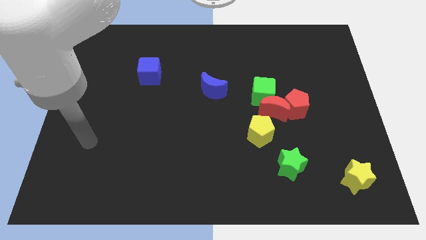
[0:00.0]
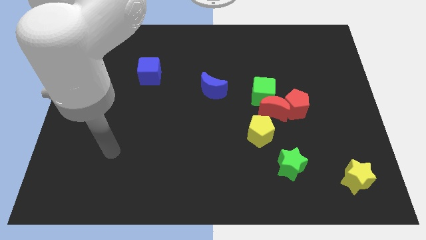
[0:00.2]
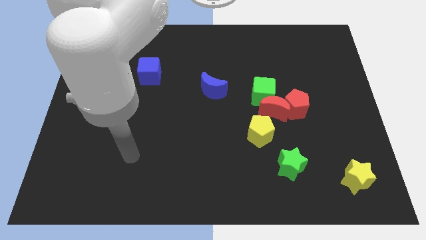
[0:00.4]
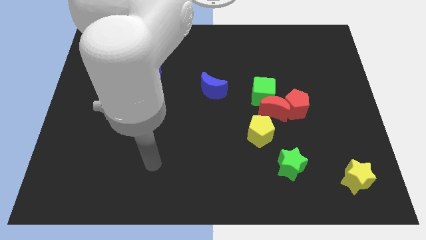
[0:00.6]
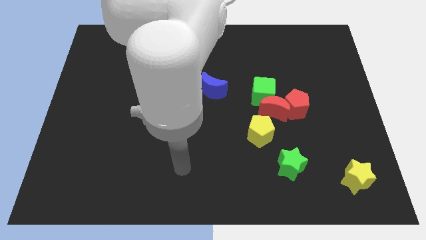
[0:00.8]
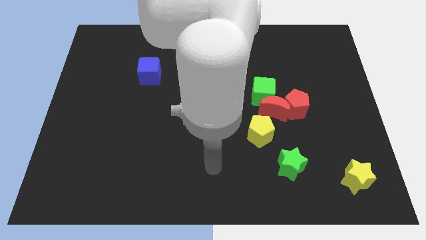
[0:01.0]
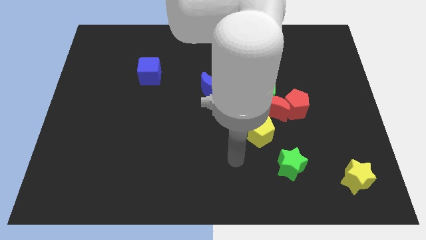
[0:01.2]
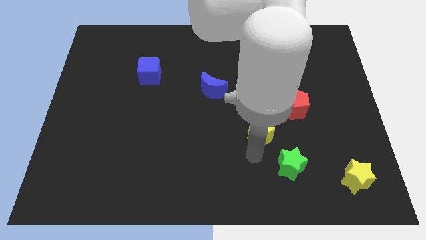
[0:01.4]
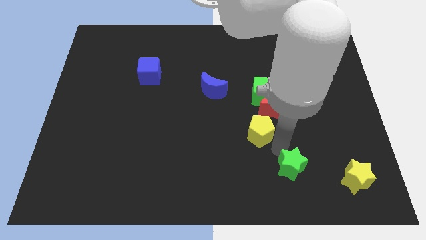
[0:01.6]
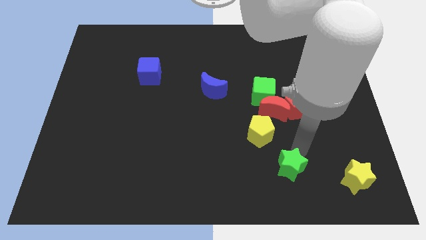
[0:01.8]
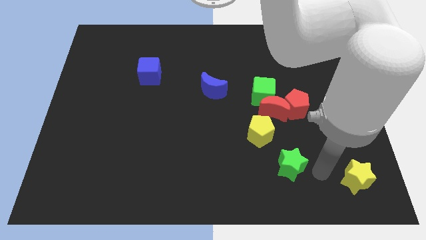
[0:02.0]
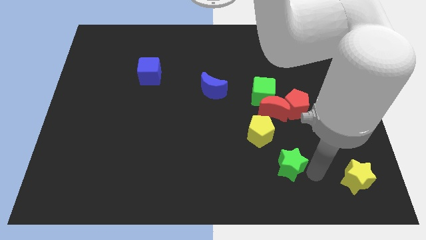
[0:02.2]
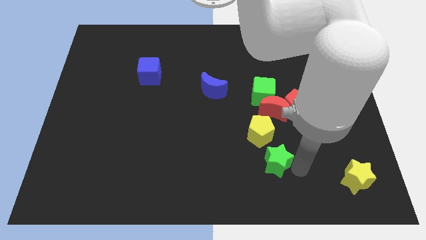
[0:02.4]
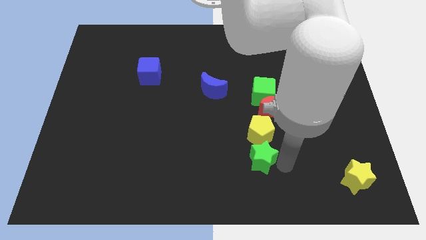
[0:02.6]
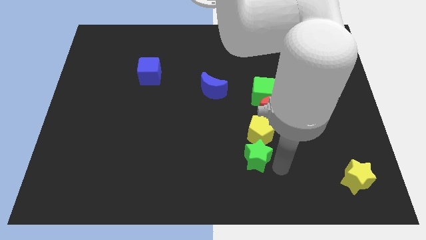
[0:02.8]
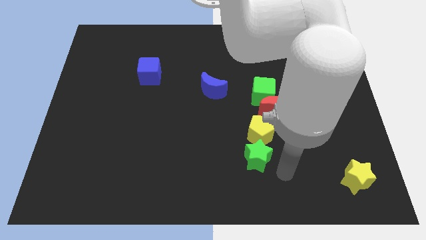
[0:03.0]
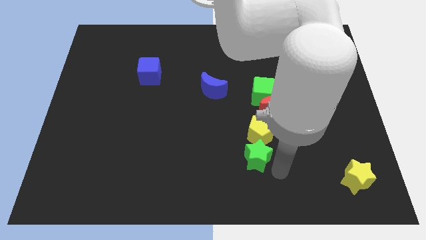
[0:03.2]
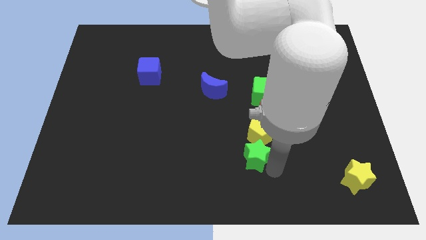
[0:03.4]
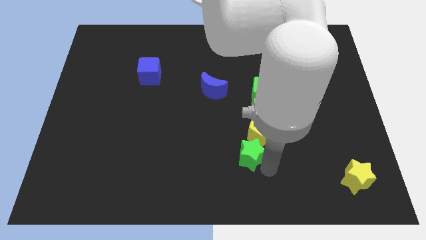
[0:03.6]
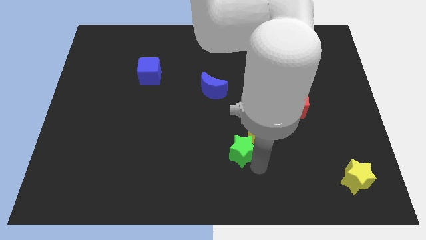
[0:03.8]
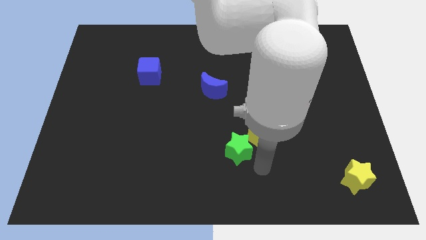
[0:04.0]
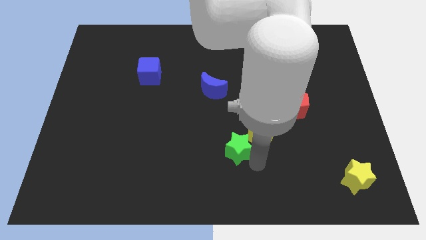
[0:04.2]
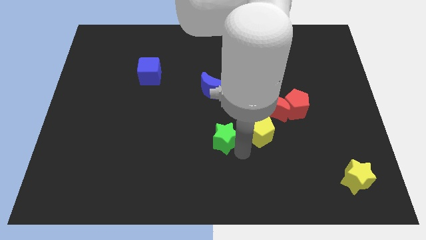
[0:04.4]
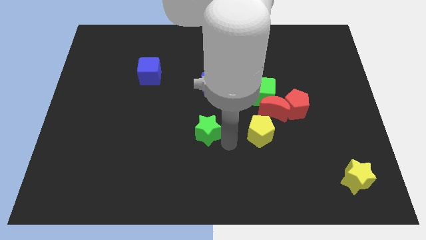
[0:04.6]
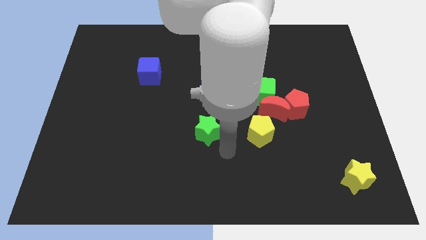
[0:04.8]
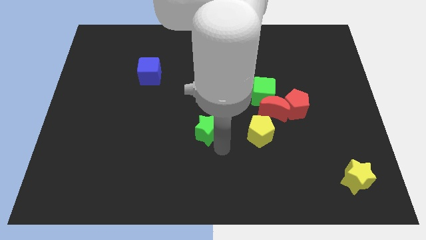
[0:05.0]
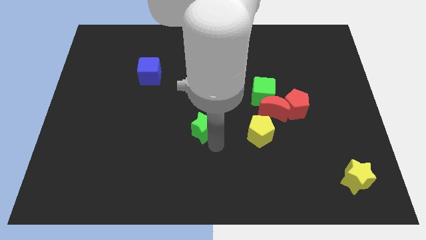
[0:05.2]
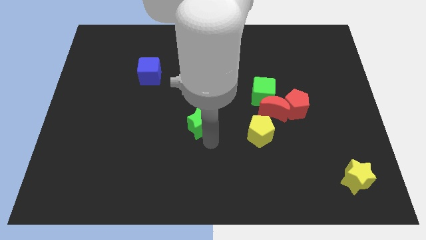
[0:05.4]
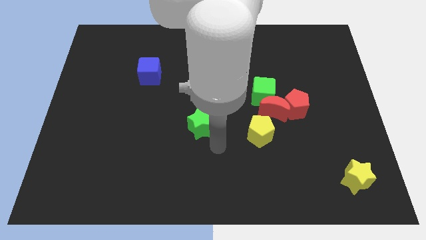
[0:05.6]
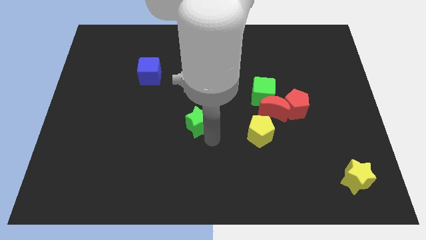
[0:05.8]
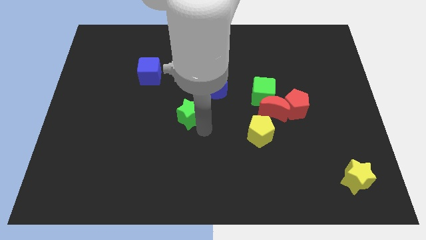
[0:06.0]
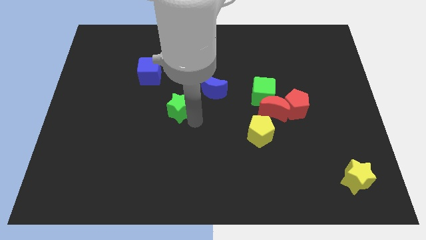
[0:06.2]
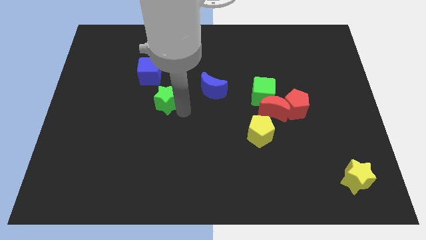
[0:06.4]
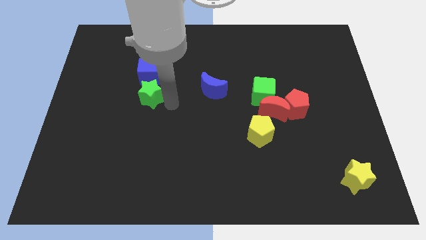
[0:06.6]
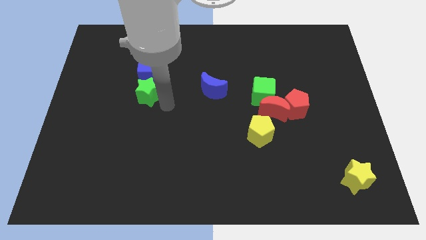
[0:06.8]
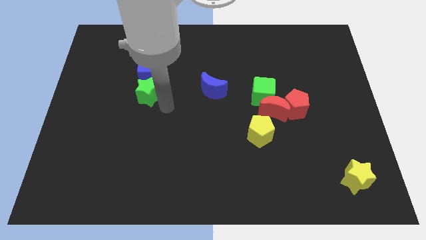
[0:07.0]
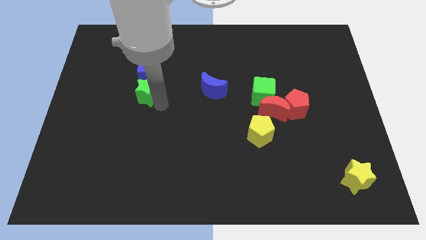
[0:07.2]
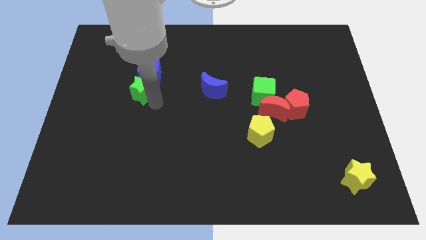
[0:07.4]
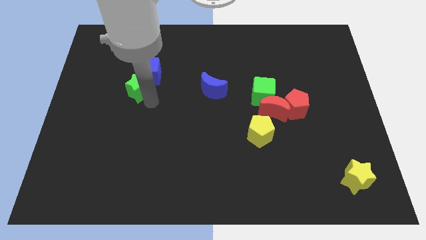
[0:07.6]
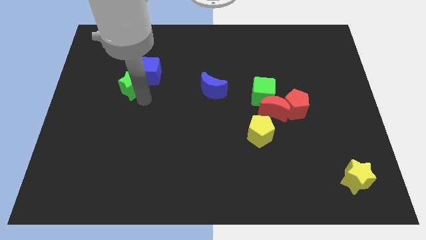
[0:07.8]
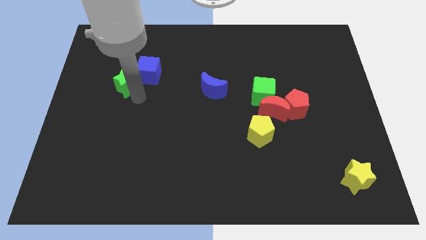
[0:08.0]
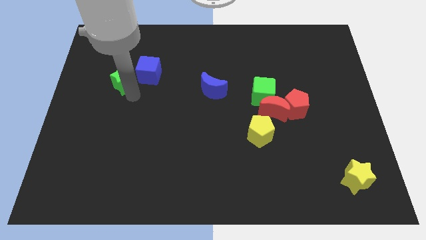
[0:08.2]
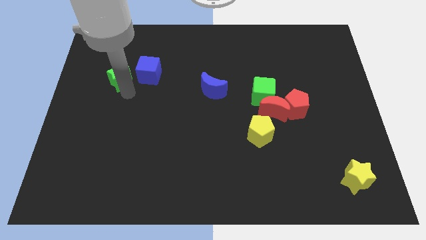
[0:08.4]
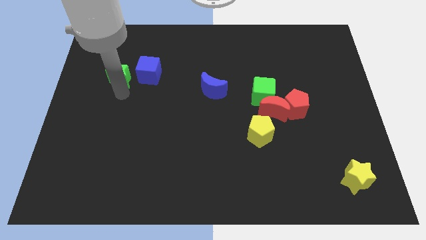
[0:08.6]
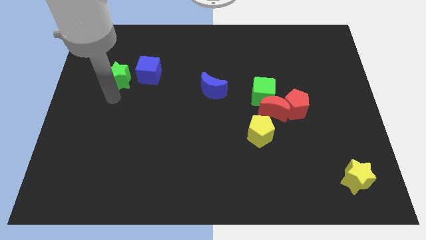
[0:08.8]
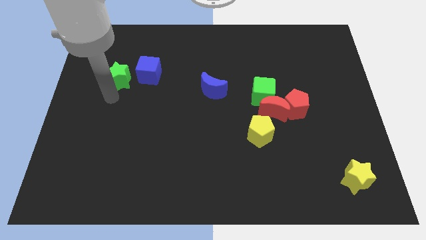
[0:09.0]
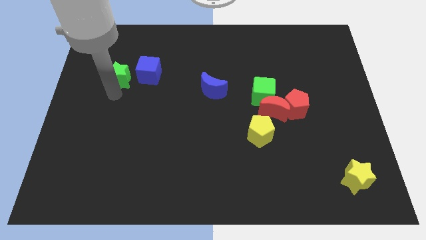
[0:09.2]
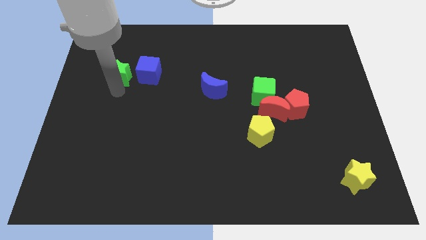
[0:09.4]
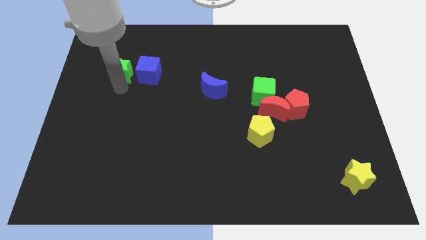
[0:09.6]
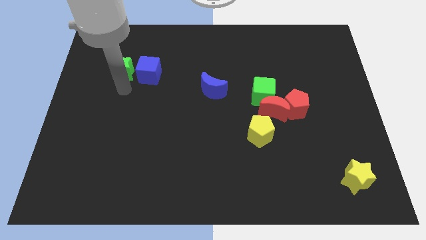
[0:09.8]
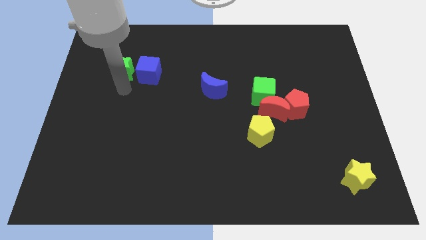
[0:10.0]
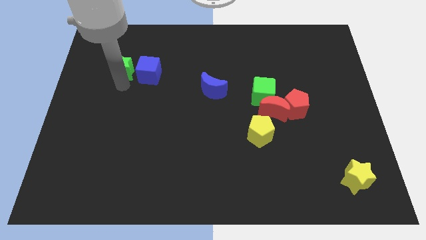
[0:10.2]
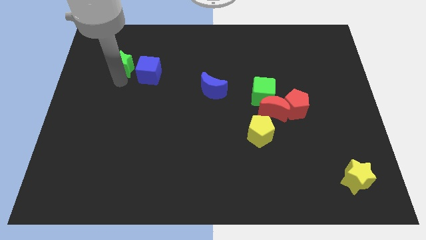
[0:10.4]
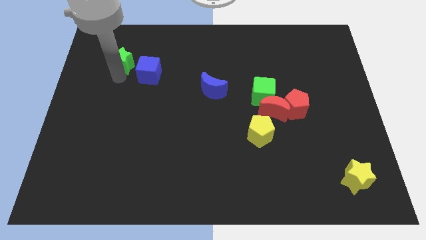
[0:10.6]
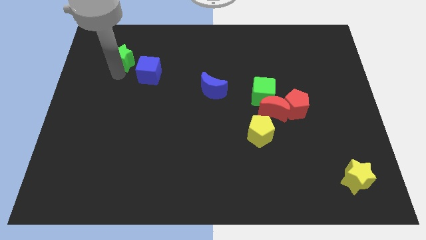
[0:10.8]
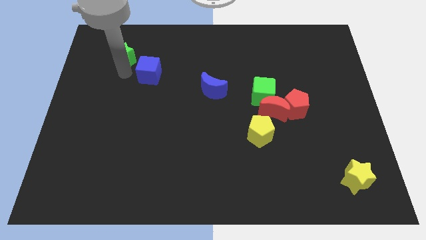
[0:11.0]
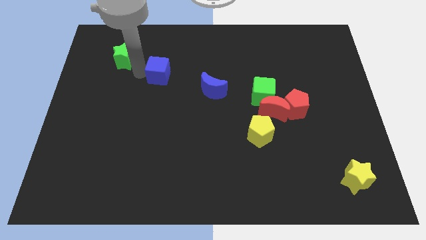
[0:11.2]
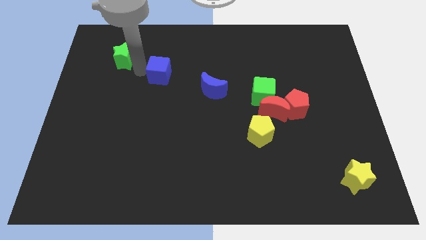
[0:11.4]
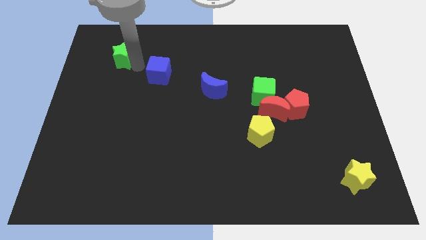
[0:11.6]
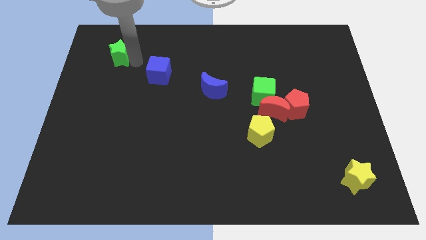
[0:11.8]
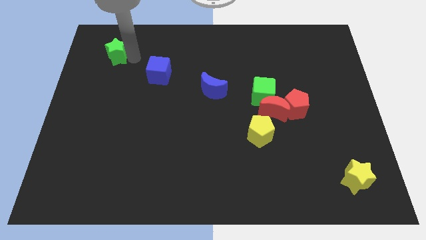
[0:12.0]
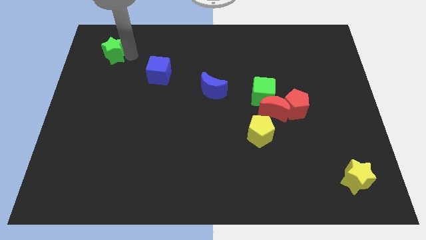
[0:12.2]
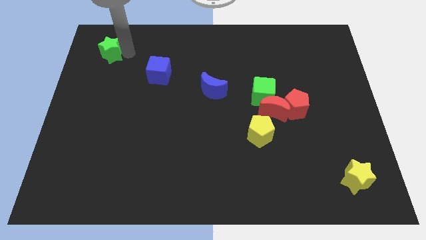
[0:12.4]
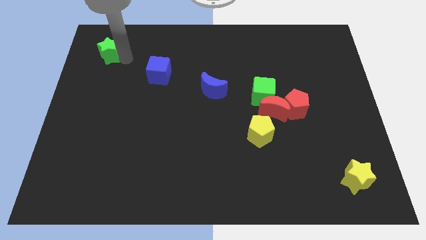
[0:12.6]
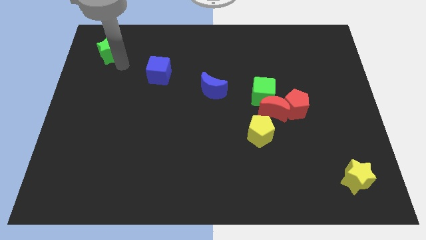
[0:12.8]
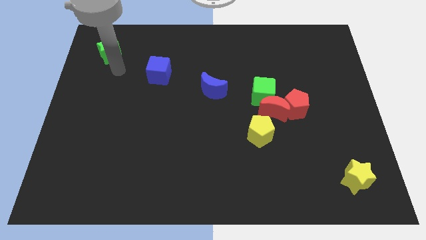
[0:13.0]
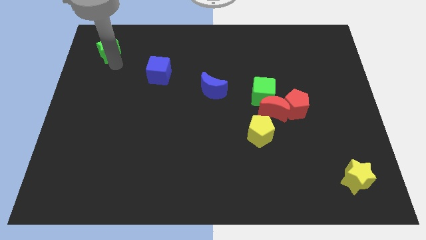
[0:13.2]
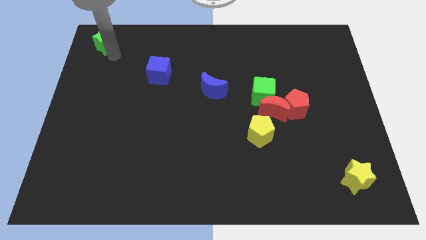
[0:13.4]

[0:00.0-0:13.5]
put the green star to the top left
